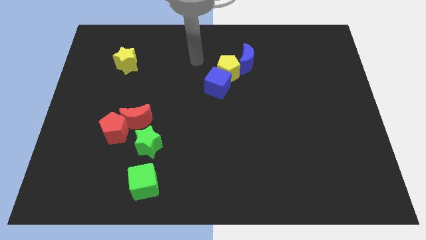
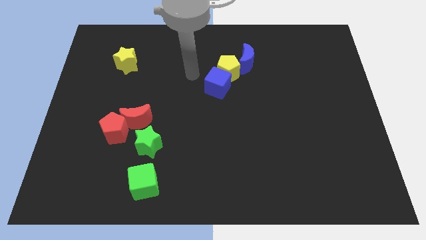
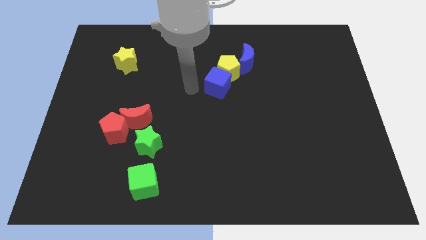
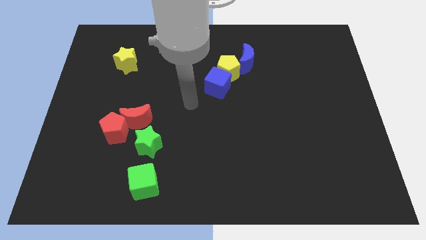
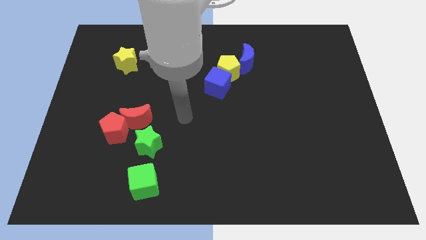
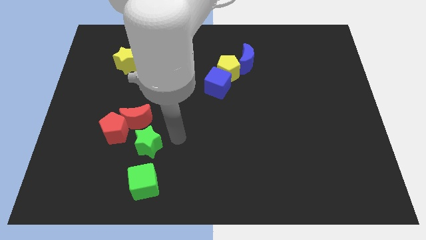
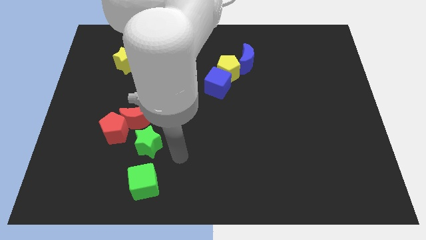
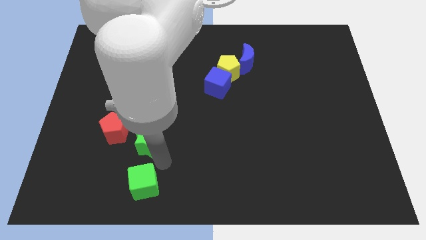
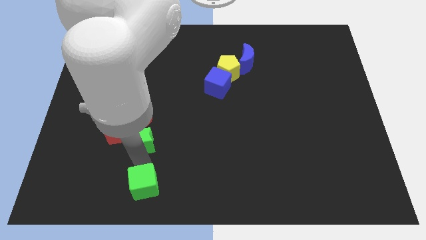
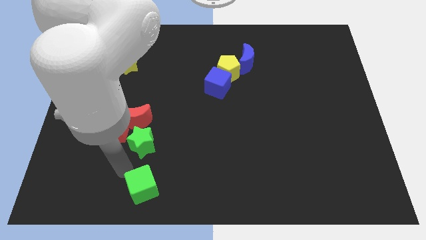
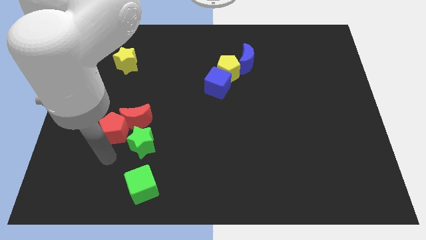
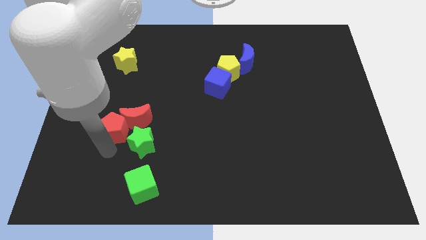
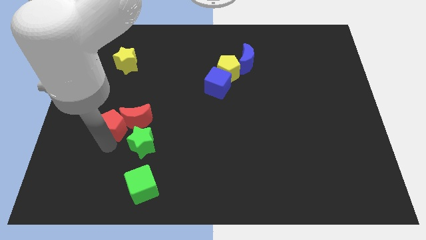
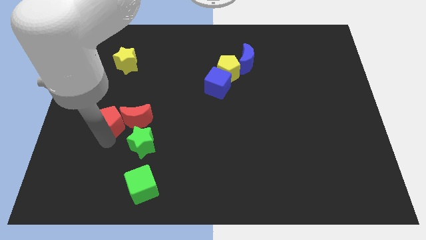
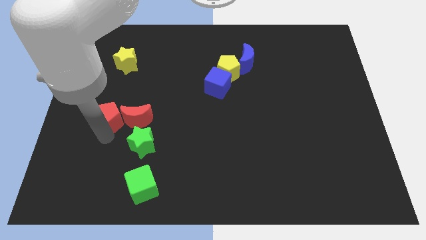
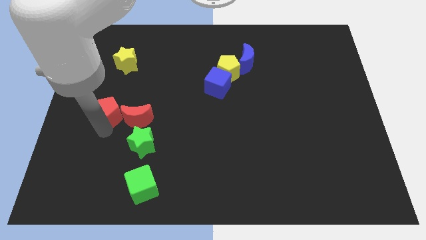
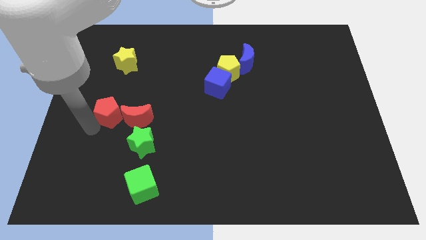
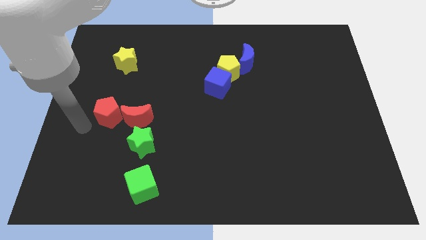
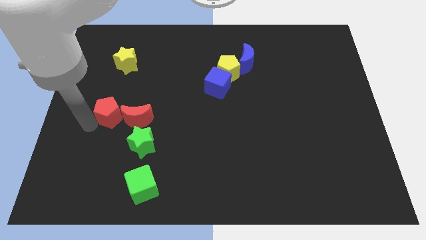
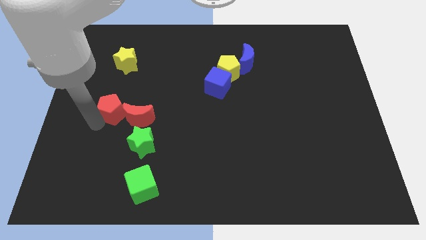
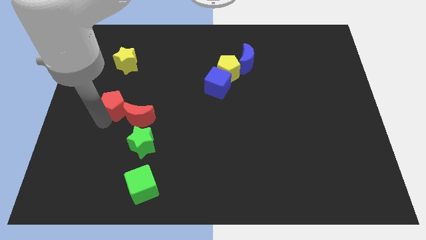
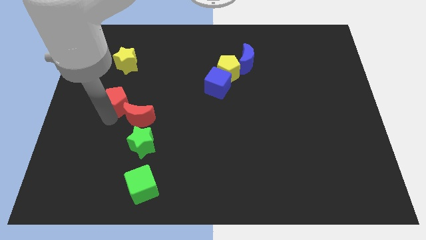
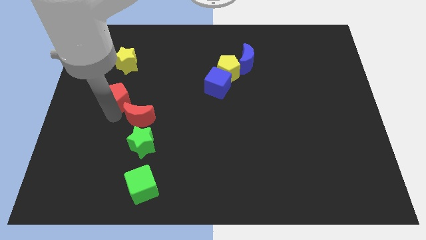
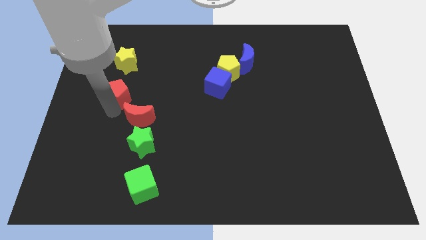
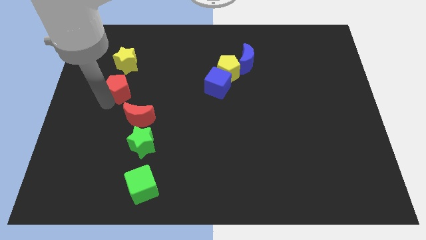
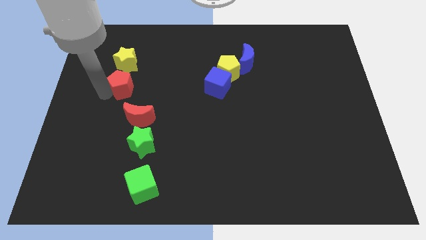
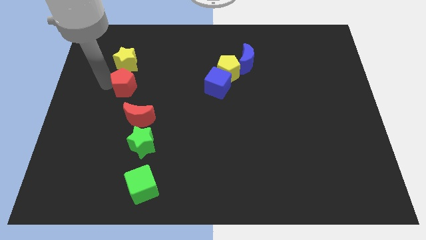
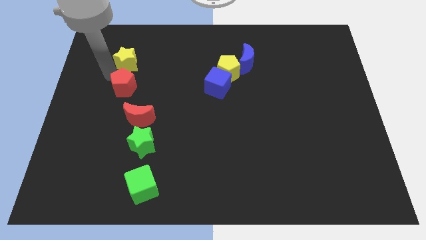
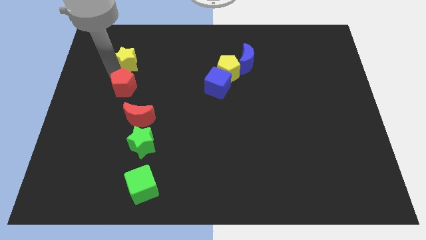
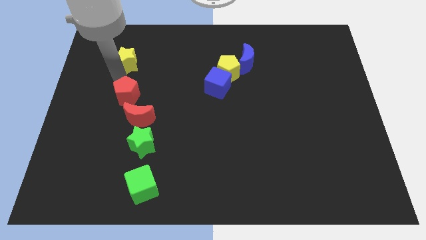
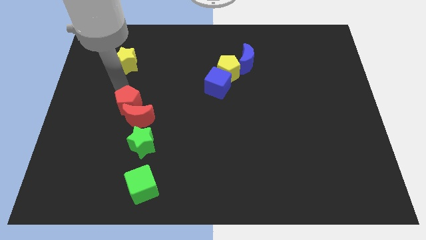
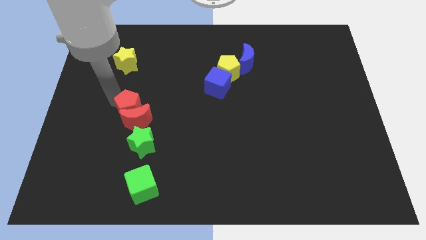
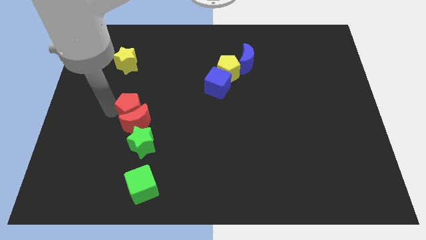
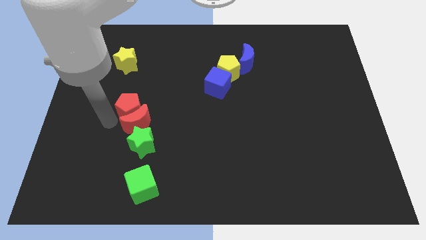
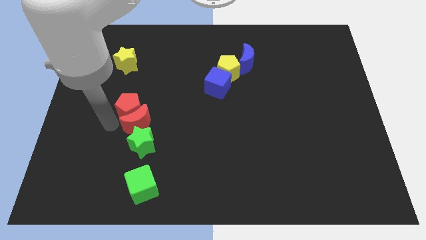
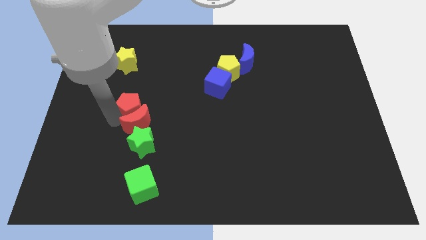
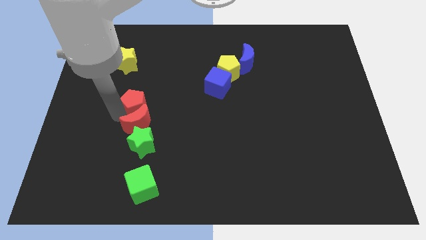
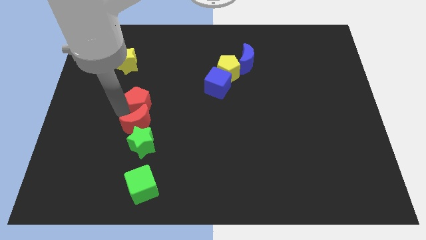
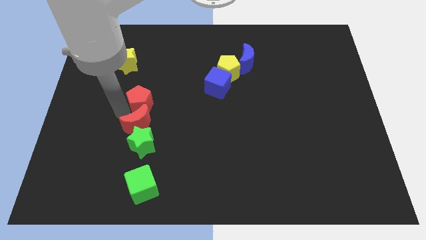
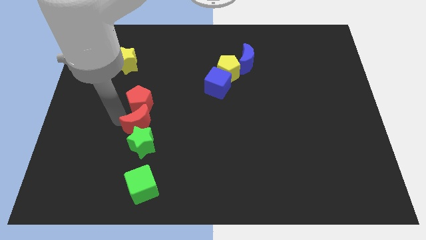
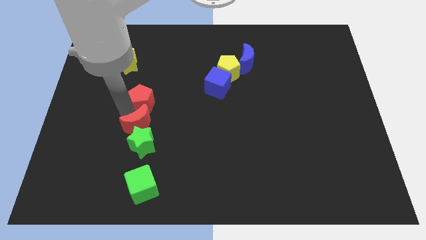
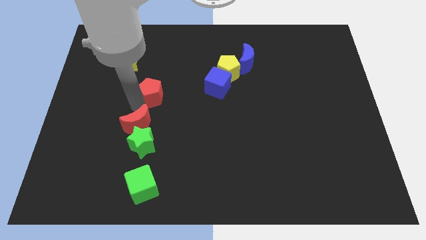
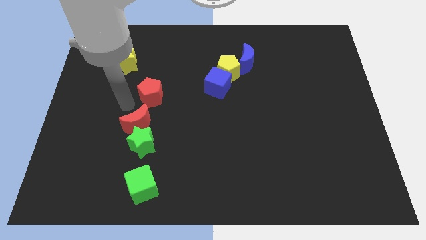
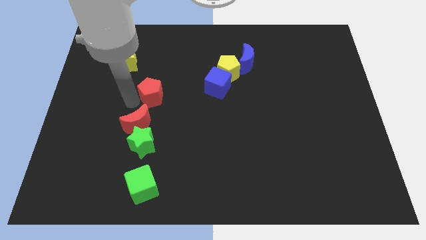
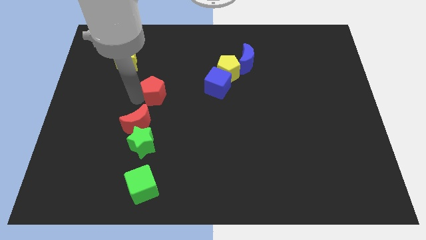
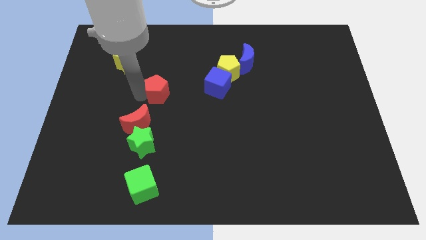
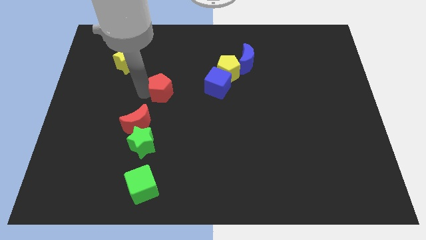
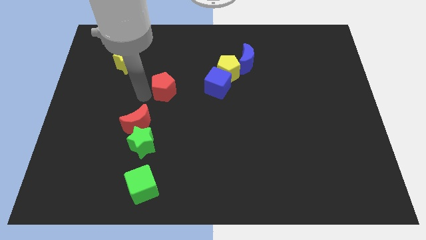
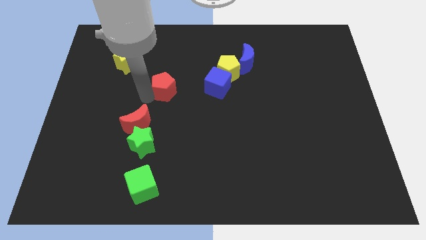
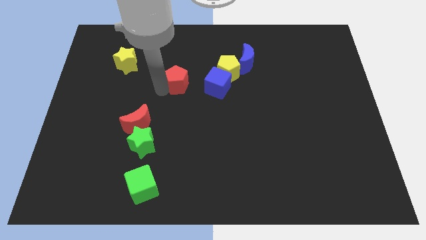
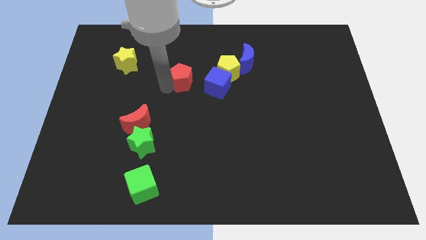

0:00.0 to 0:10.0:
move the red pentagon diagonally up and to the right

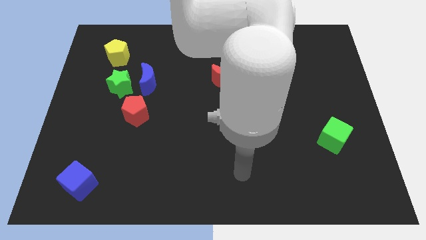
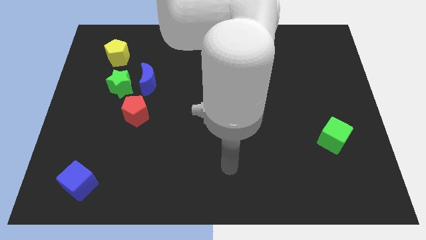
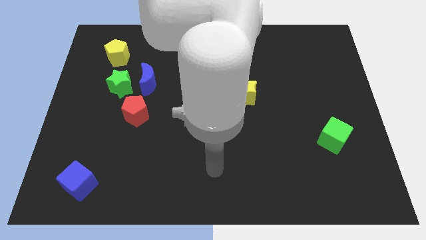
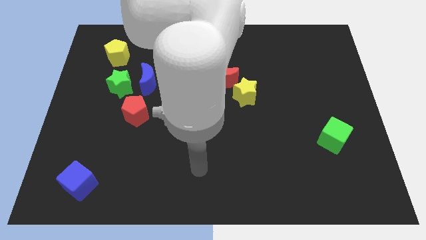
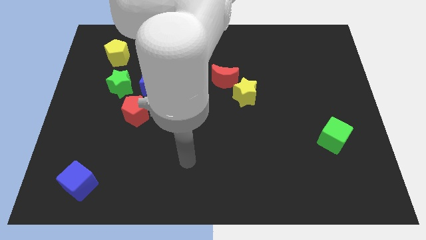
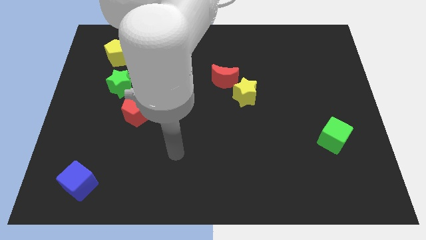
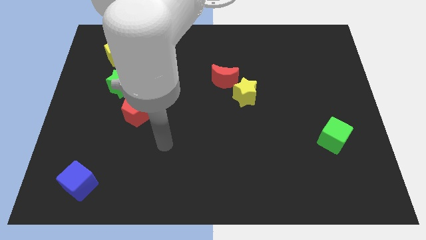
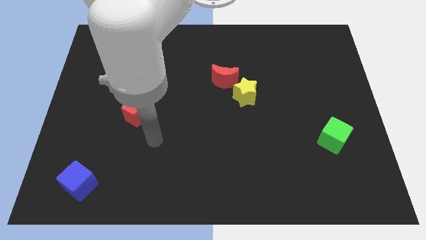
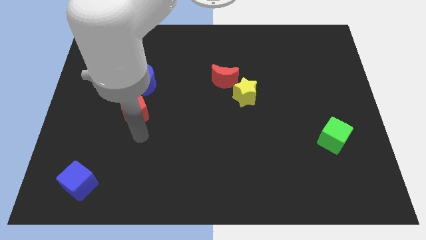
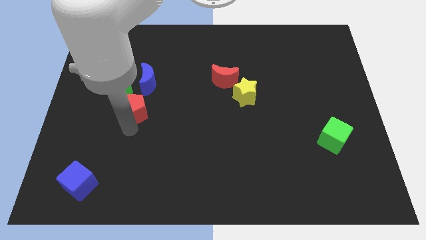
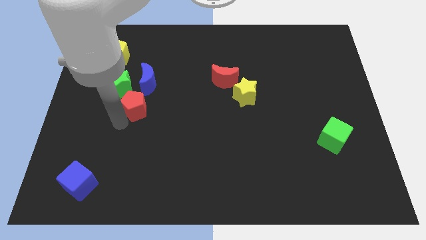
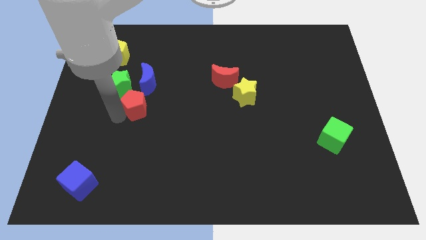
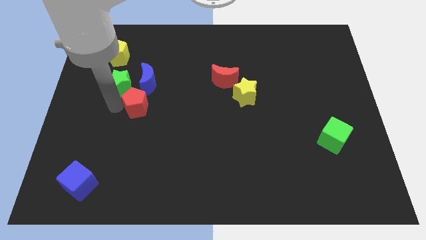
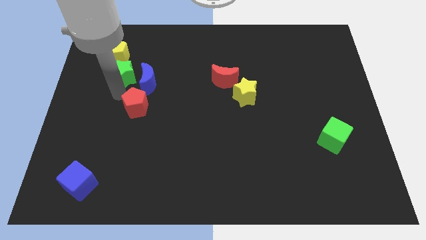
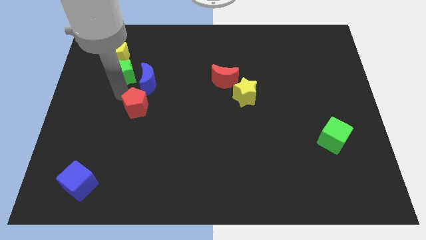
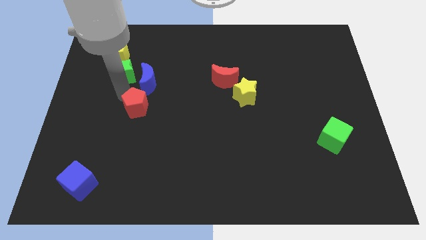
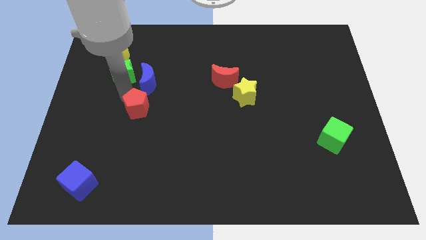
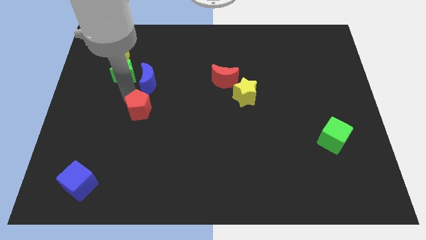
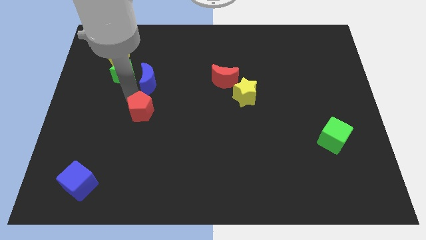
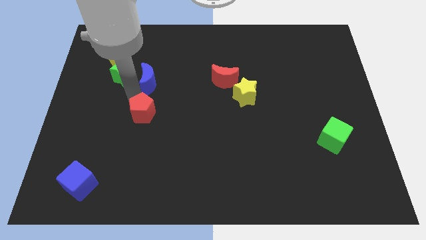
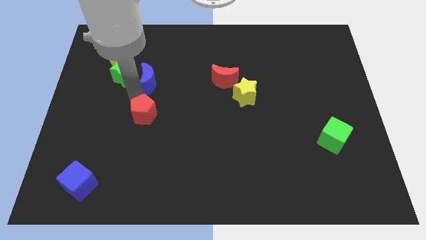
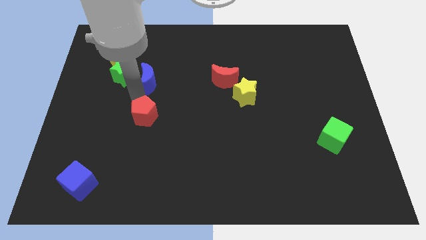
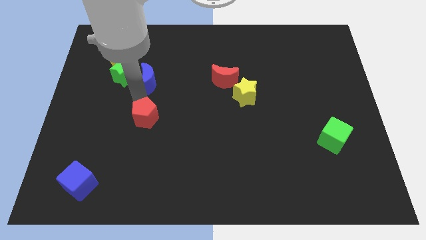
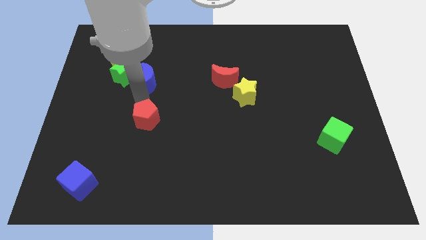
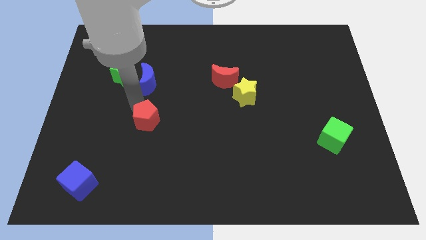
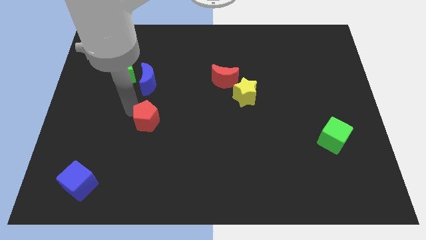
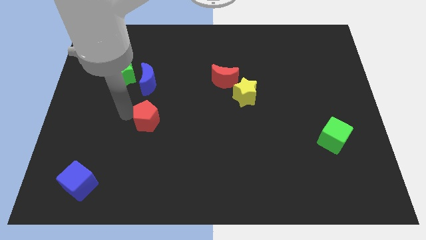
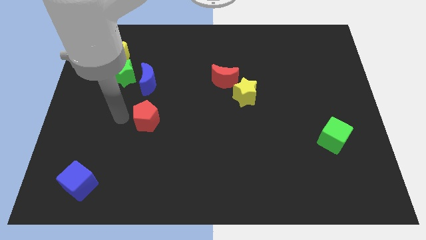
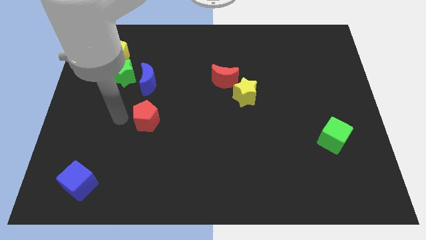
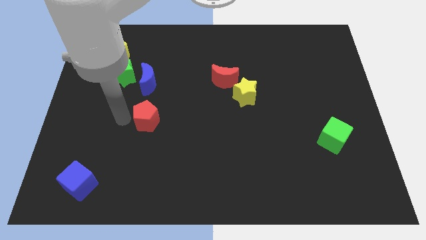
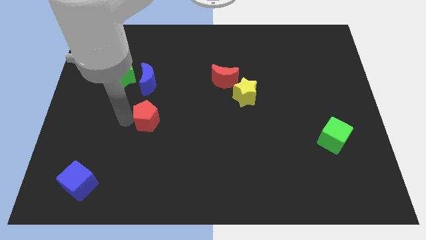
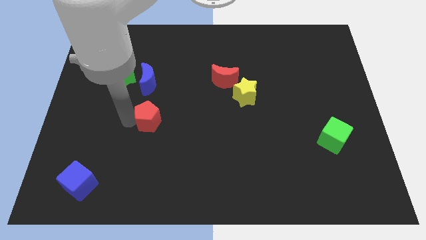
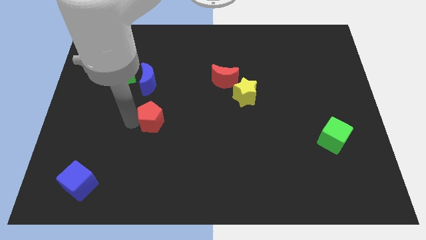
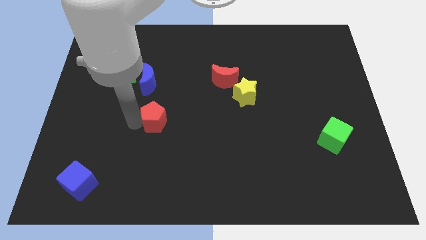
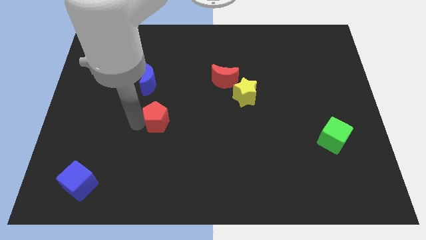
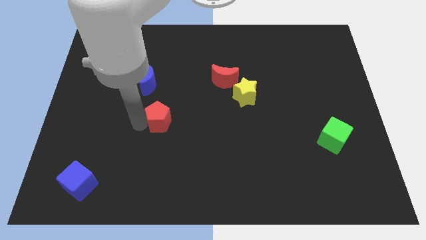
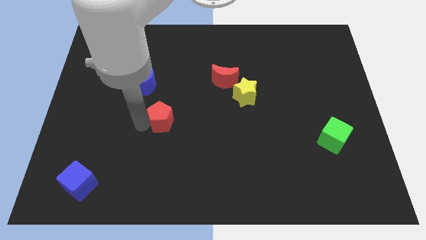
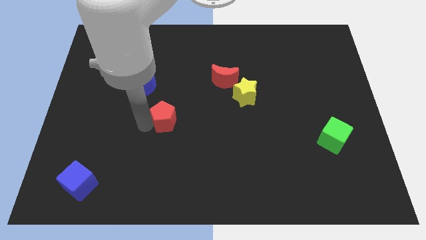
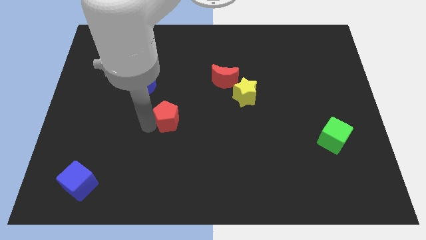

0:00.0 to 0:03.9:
move the red pentagon a bit right
